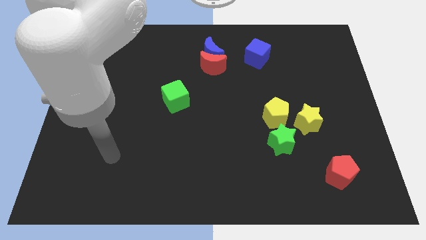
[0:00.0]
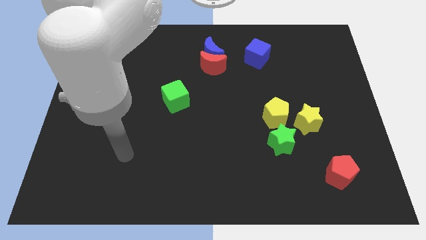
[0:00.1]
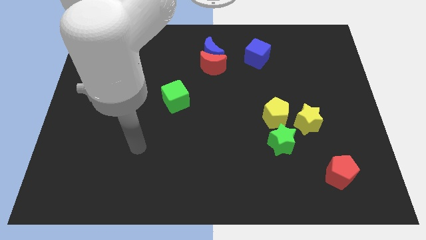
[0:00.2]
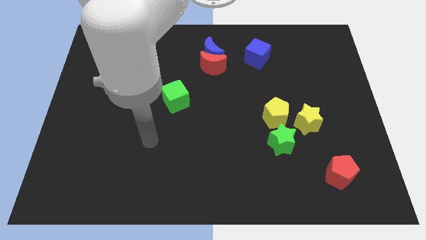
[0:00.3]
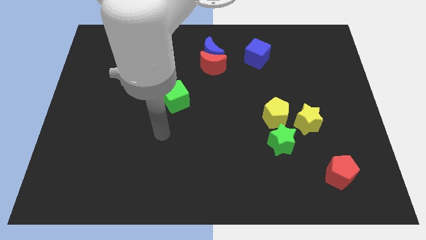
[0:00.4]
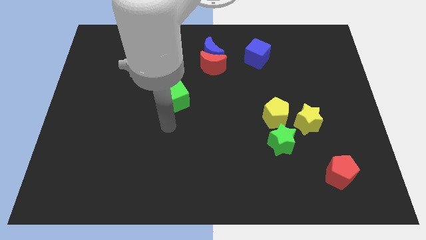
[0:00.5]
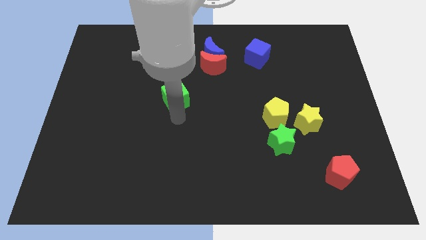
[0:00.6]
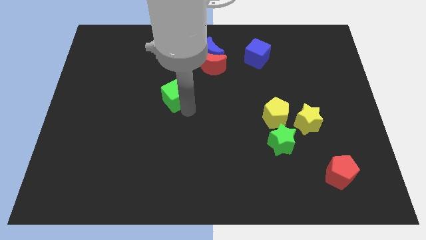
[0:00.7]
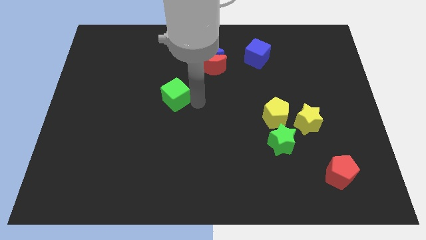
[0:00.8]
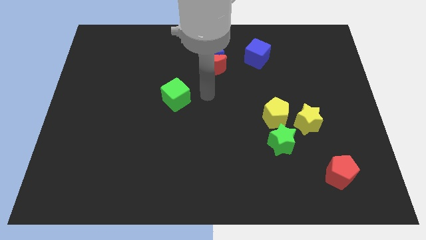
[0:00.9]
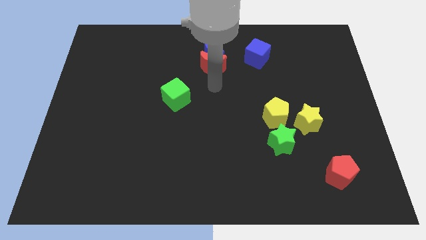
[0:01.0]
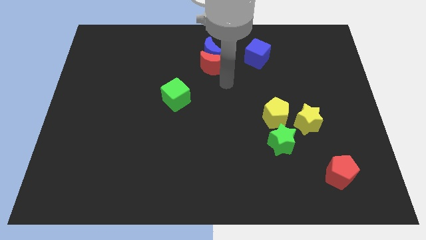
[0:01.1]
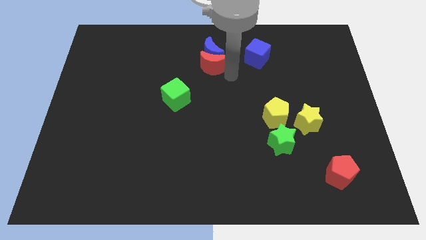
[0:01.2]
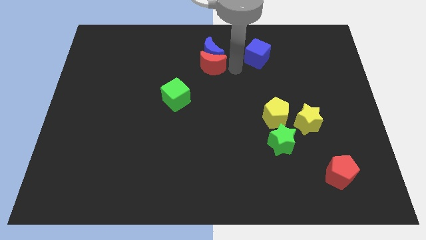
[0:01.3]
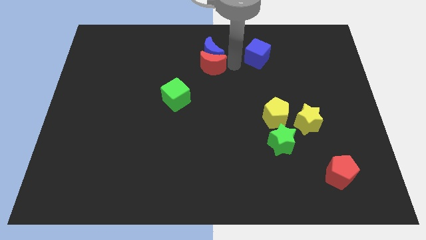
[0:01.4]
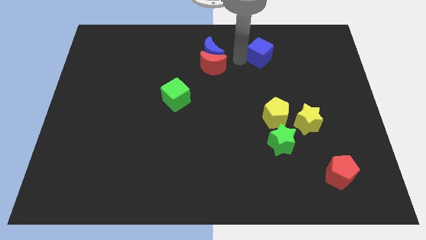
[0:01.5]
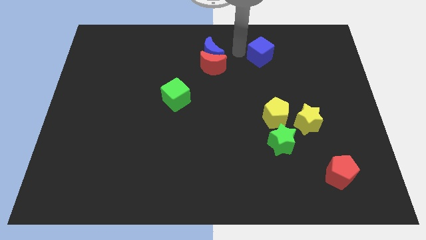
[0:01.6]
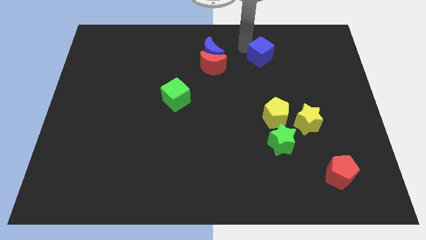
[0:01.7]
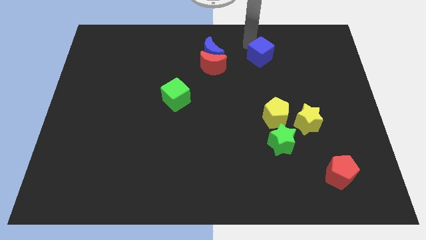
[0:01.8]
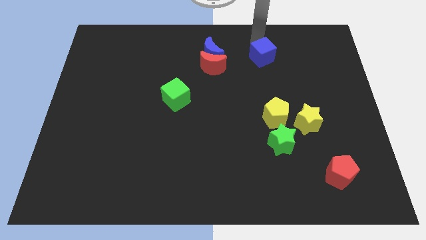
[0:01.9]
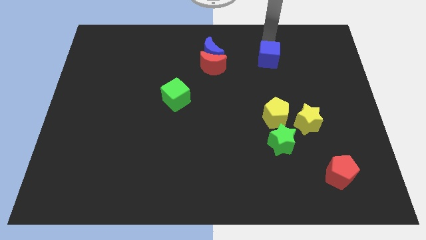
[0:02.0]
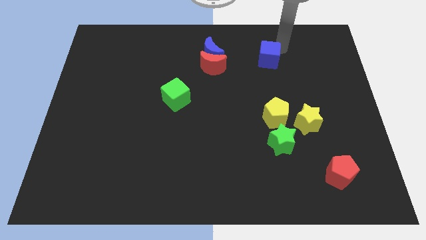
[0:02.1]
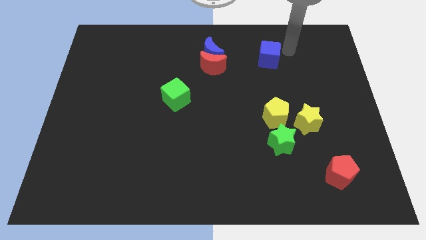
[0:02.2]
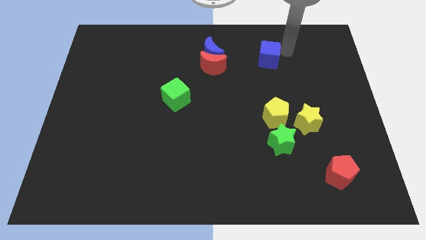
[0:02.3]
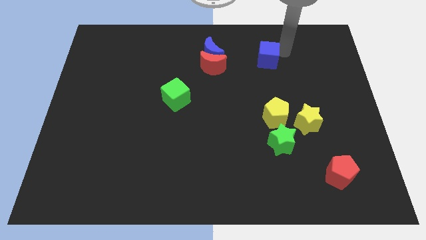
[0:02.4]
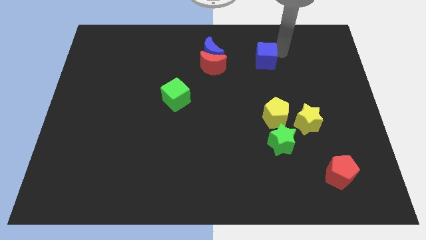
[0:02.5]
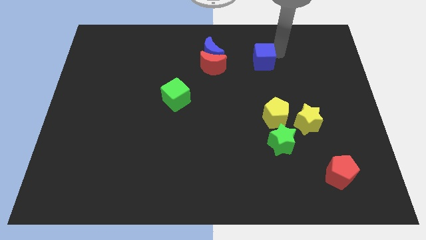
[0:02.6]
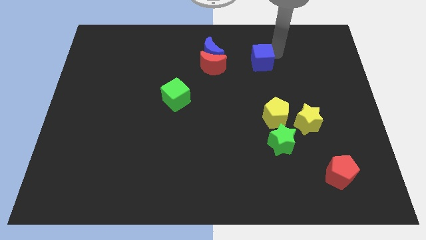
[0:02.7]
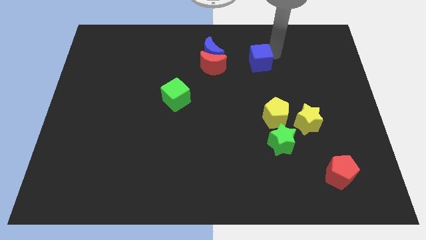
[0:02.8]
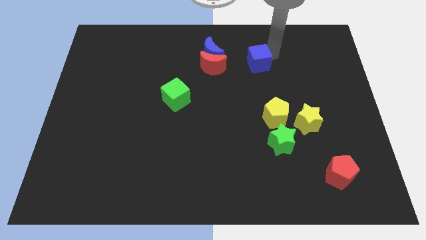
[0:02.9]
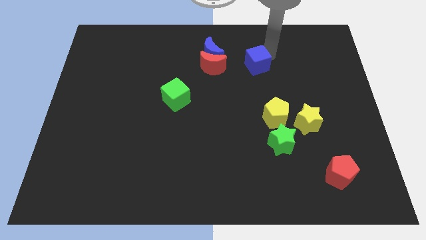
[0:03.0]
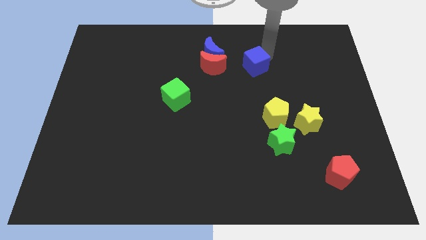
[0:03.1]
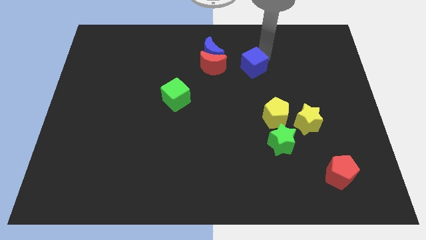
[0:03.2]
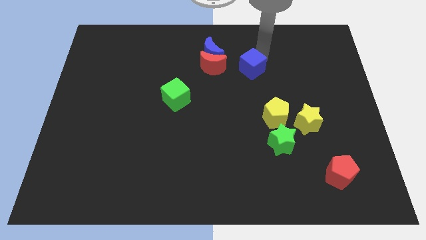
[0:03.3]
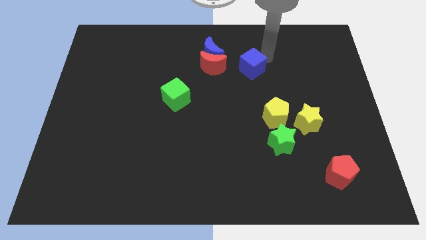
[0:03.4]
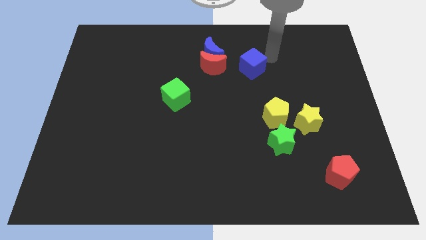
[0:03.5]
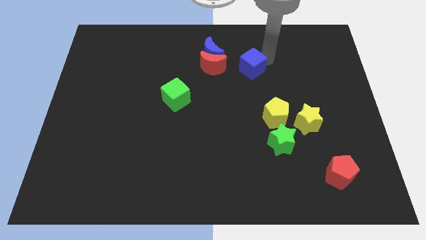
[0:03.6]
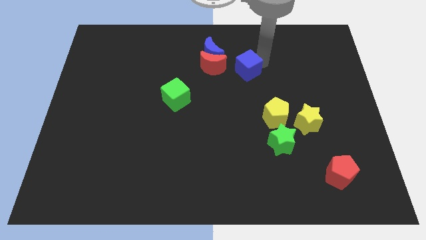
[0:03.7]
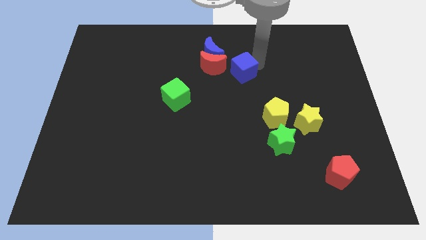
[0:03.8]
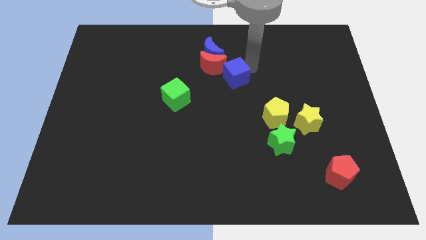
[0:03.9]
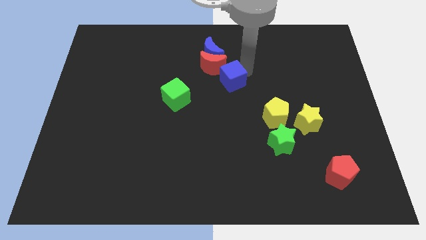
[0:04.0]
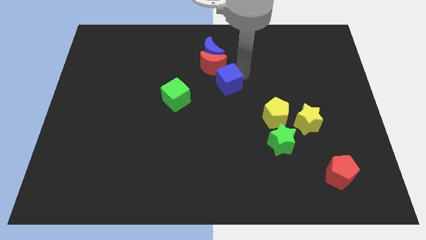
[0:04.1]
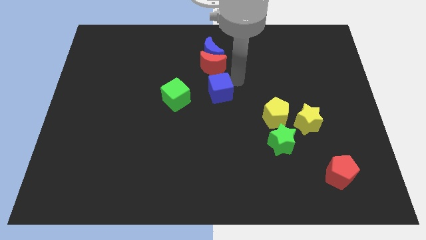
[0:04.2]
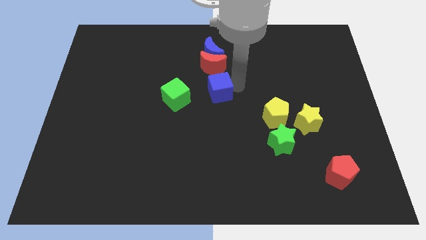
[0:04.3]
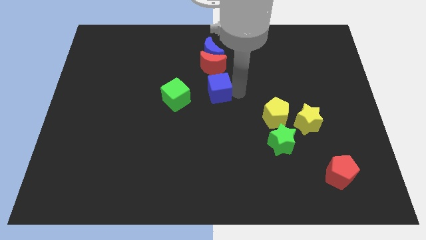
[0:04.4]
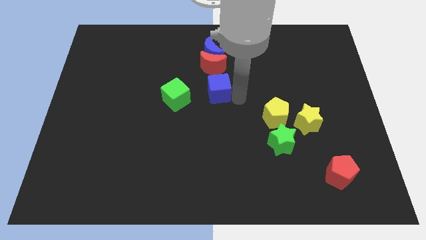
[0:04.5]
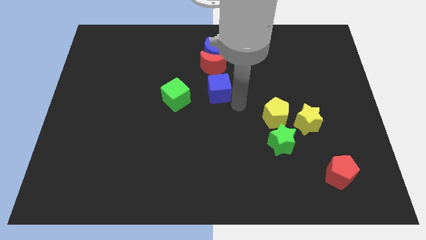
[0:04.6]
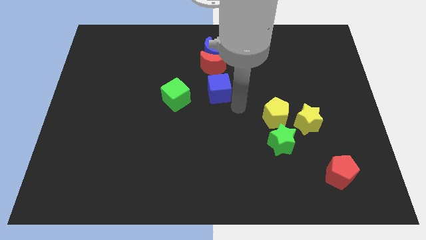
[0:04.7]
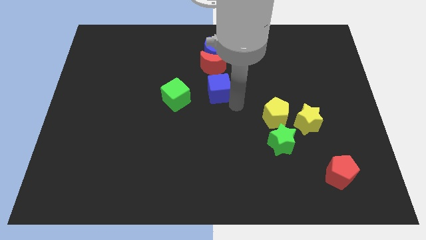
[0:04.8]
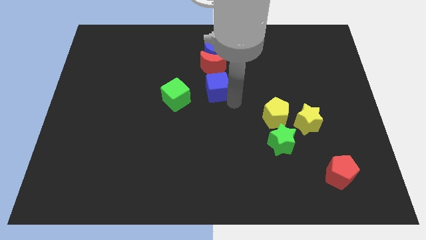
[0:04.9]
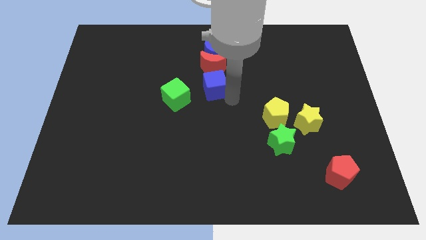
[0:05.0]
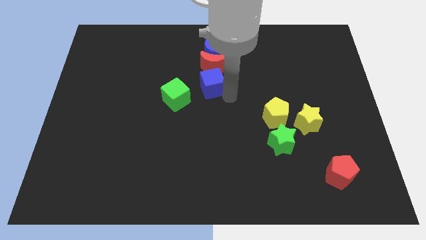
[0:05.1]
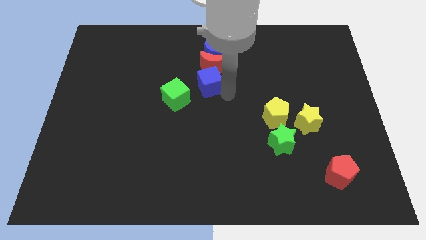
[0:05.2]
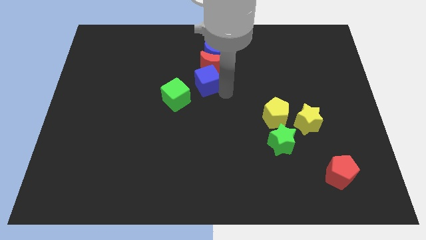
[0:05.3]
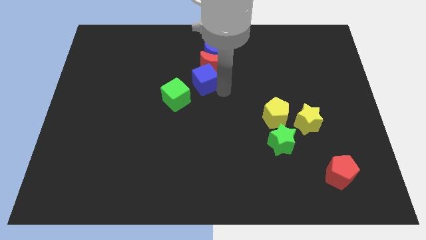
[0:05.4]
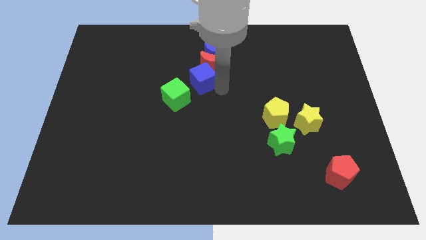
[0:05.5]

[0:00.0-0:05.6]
move the blue cube diagonally down and to the left of the blue moon

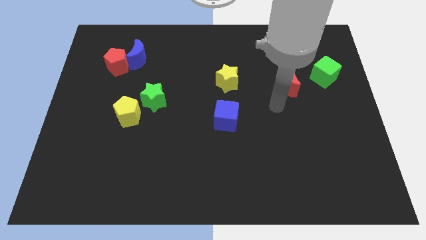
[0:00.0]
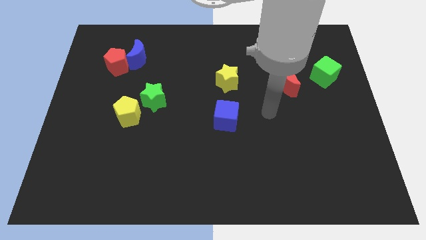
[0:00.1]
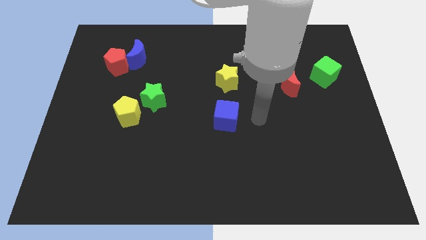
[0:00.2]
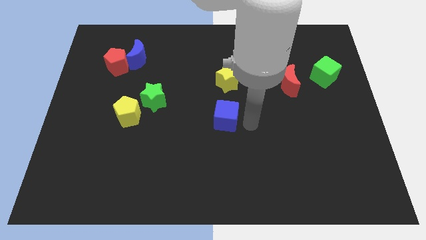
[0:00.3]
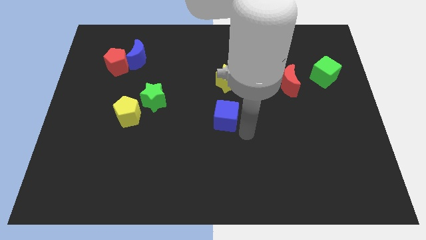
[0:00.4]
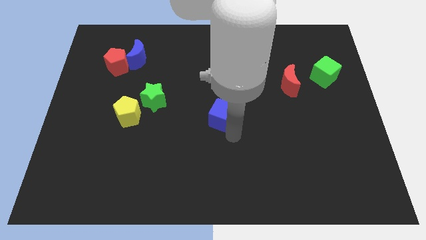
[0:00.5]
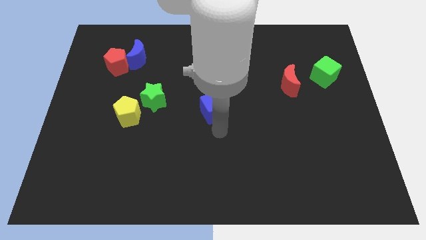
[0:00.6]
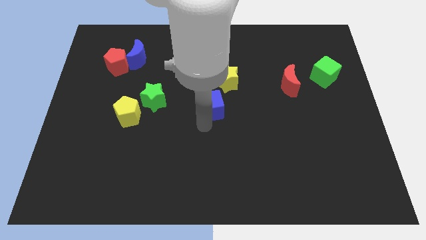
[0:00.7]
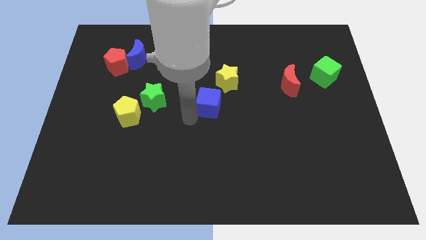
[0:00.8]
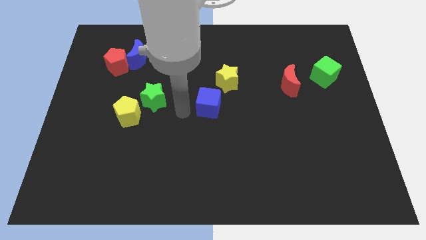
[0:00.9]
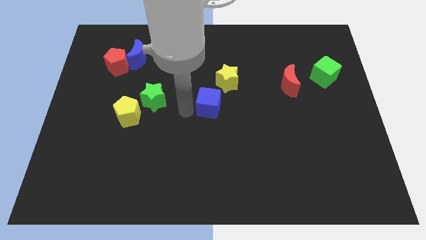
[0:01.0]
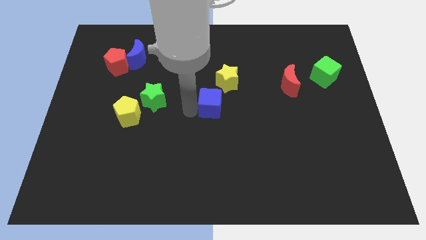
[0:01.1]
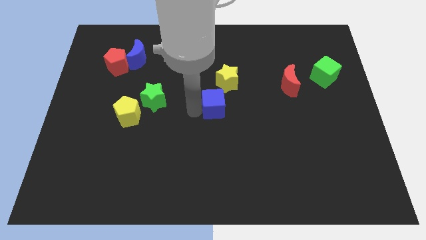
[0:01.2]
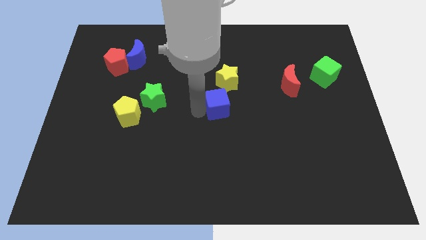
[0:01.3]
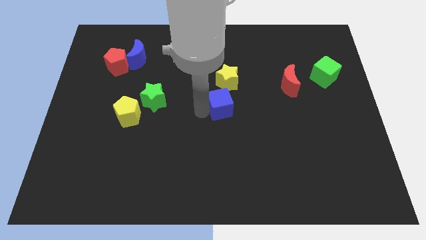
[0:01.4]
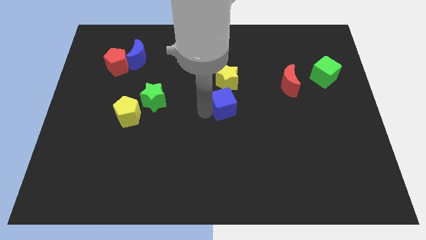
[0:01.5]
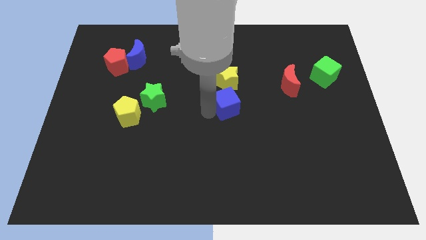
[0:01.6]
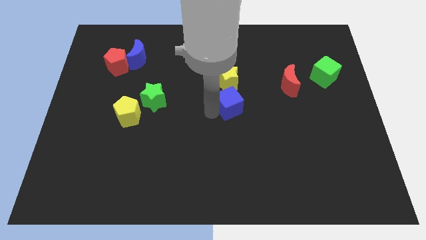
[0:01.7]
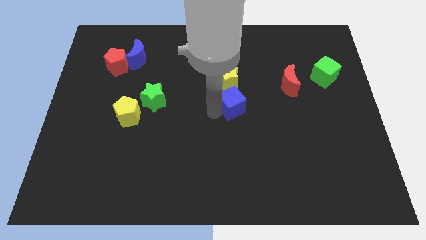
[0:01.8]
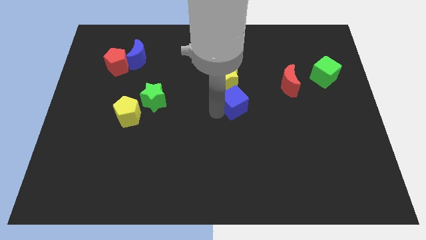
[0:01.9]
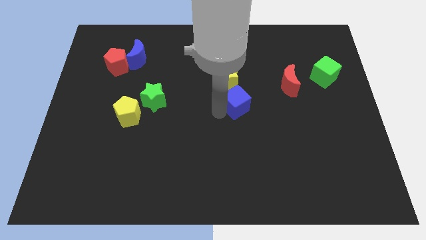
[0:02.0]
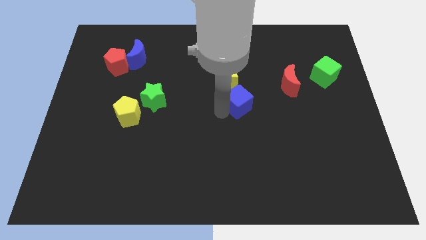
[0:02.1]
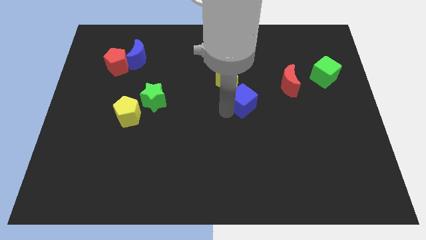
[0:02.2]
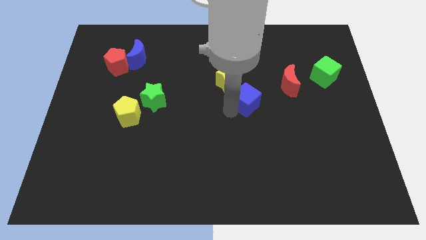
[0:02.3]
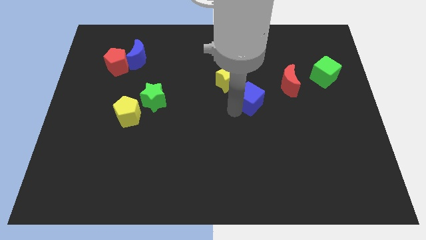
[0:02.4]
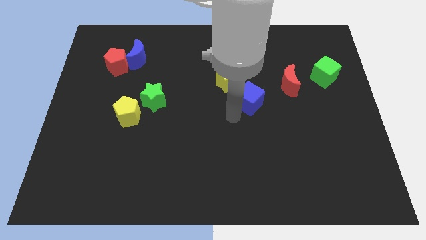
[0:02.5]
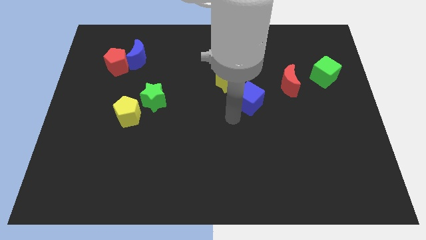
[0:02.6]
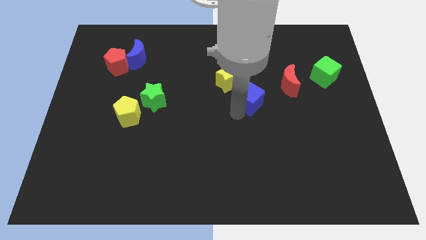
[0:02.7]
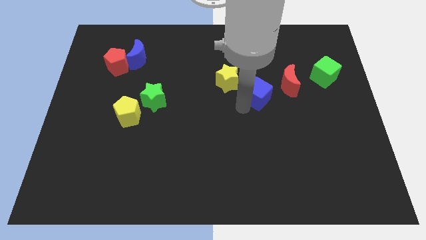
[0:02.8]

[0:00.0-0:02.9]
push the blue cube right of the yellow star

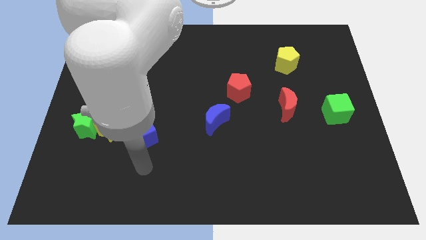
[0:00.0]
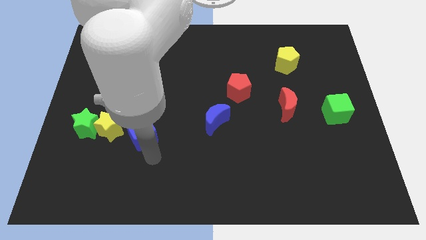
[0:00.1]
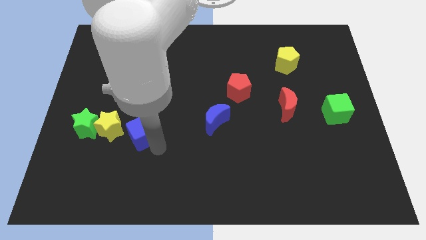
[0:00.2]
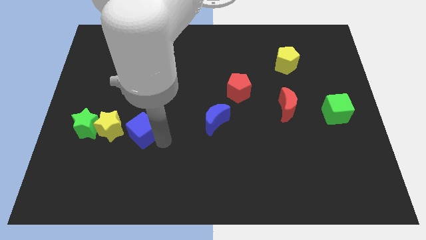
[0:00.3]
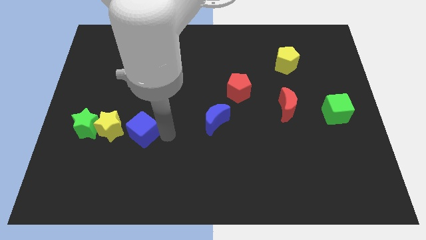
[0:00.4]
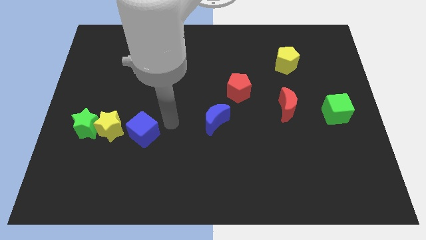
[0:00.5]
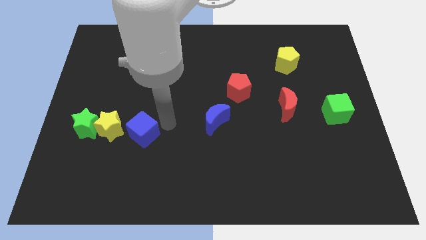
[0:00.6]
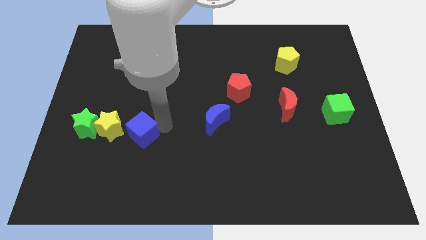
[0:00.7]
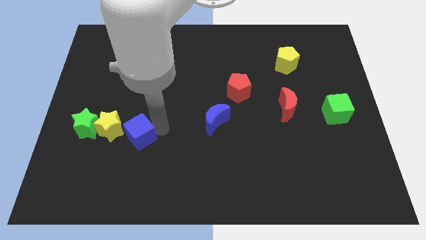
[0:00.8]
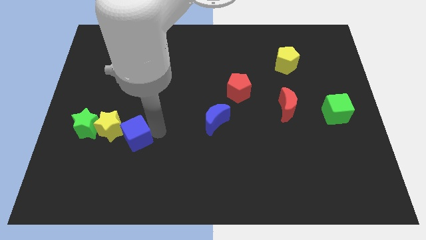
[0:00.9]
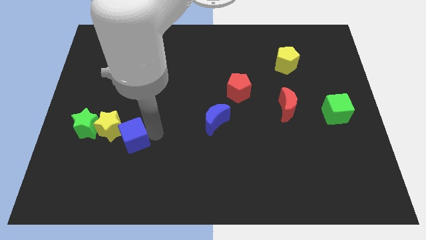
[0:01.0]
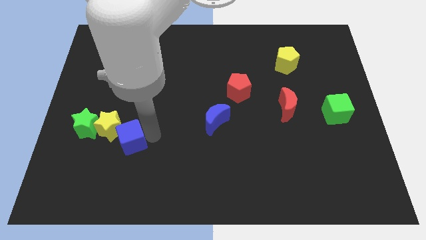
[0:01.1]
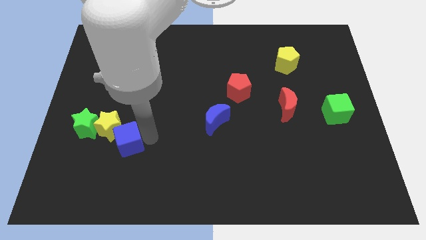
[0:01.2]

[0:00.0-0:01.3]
slide the blue cube to the bottom right of the green star
